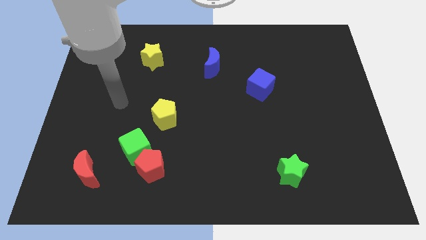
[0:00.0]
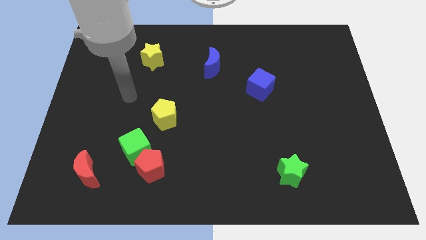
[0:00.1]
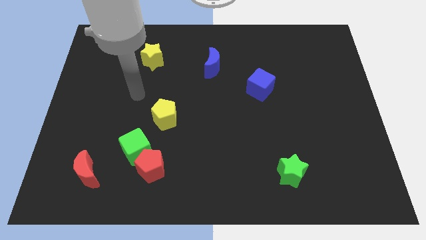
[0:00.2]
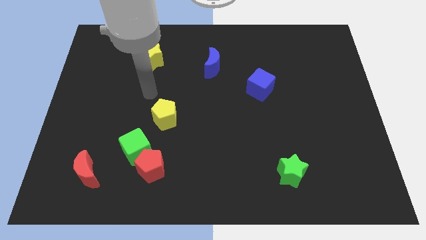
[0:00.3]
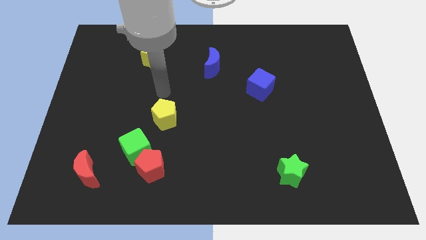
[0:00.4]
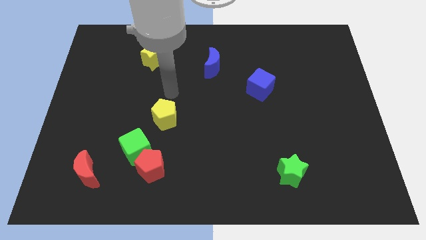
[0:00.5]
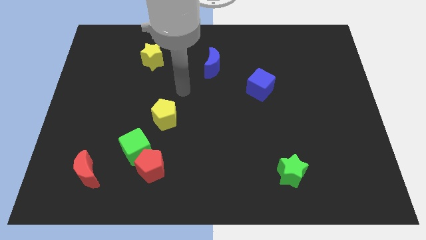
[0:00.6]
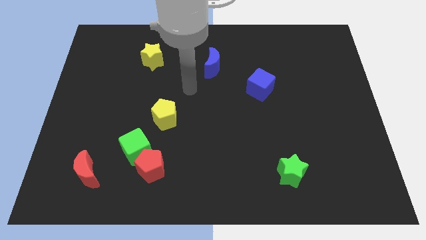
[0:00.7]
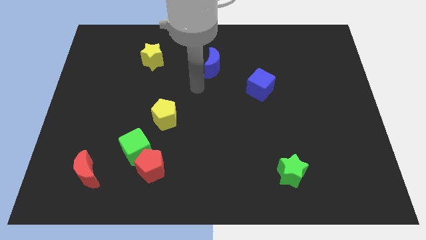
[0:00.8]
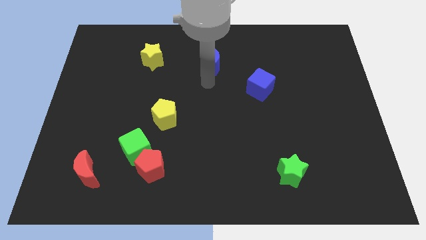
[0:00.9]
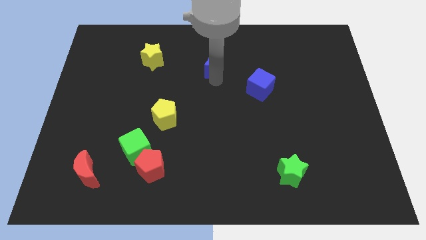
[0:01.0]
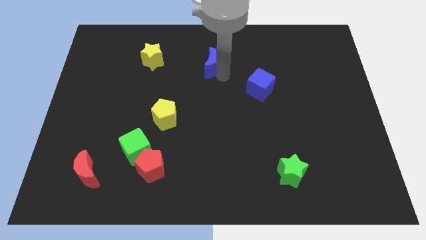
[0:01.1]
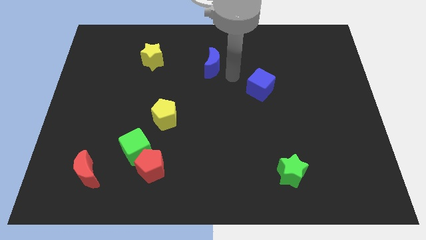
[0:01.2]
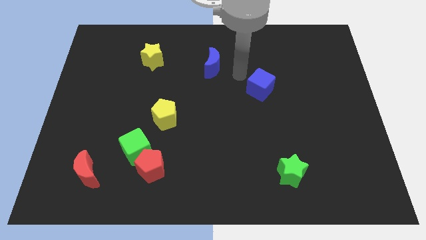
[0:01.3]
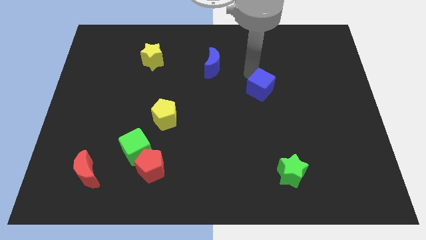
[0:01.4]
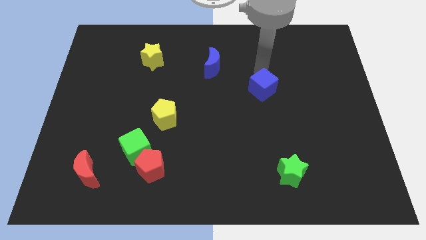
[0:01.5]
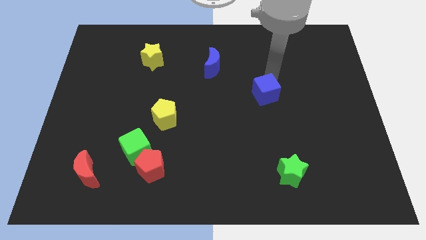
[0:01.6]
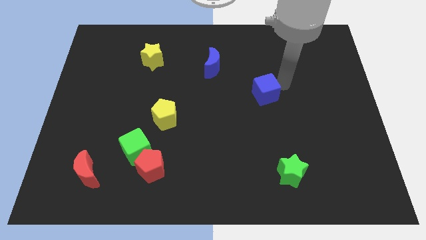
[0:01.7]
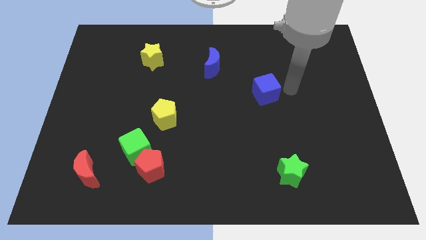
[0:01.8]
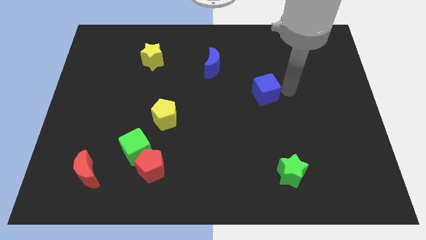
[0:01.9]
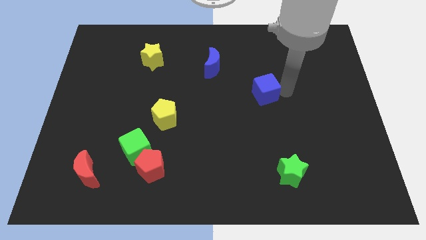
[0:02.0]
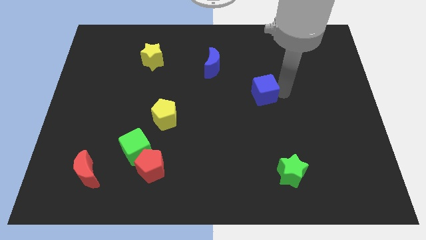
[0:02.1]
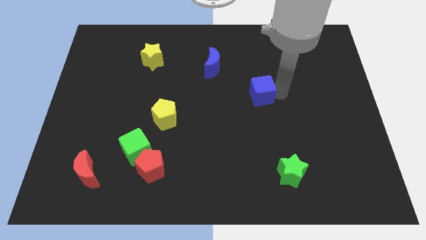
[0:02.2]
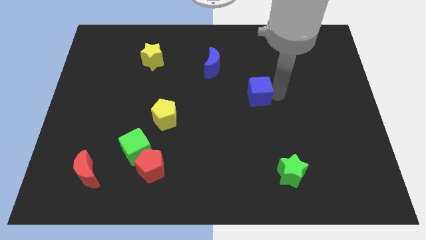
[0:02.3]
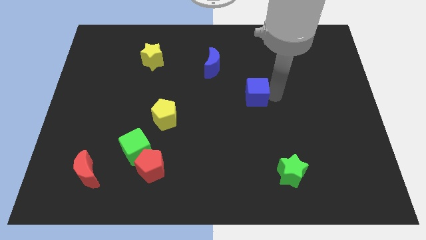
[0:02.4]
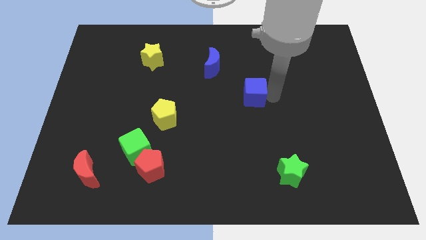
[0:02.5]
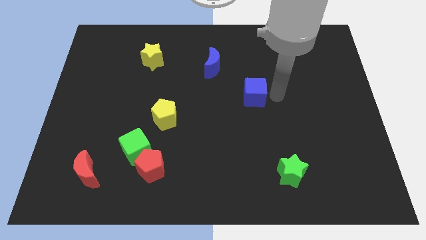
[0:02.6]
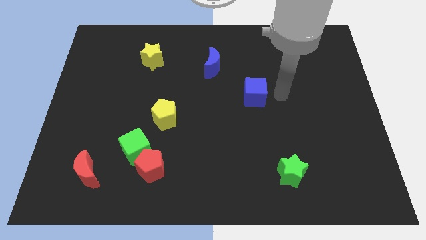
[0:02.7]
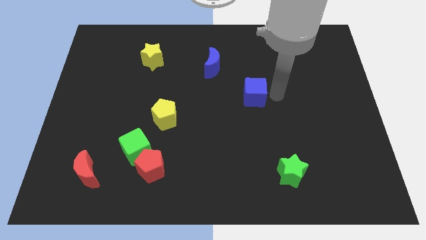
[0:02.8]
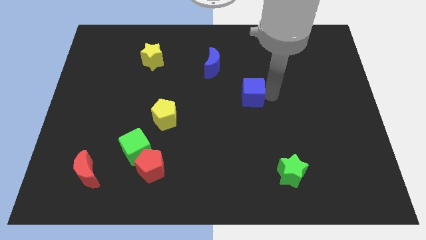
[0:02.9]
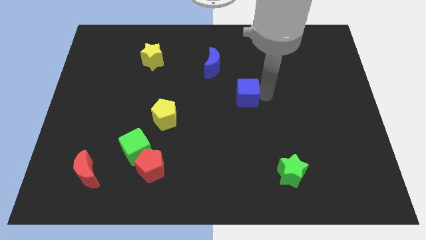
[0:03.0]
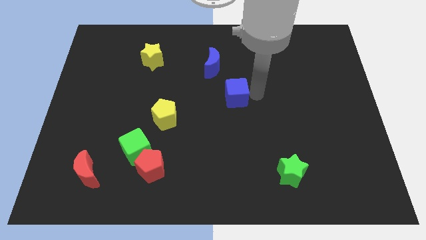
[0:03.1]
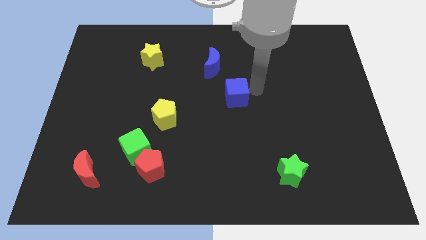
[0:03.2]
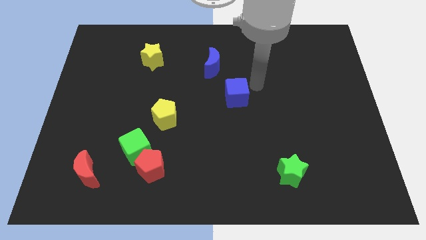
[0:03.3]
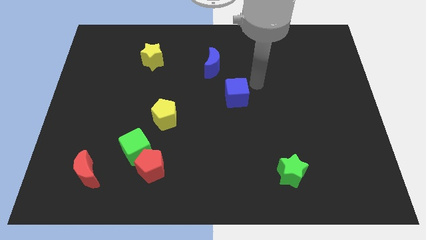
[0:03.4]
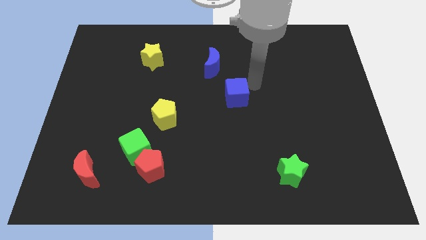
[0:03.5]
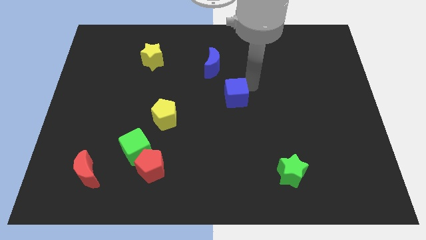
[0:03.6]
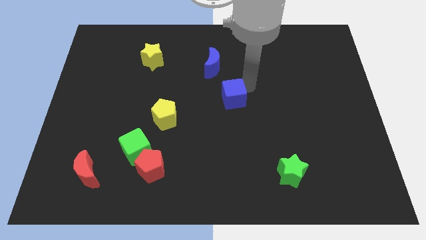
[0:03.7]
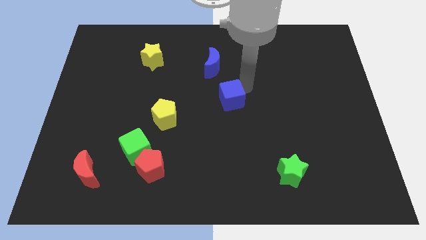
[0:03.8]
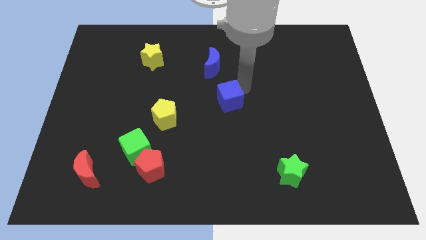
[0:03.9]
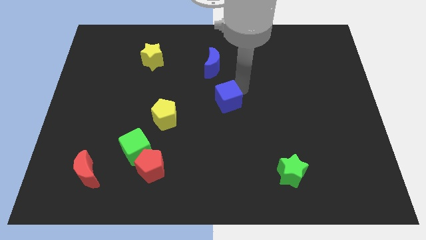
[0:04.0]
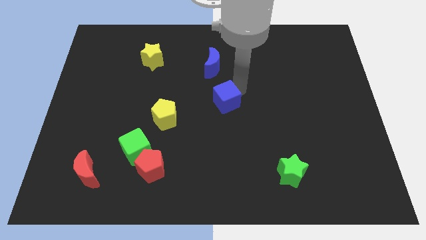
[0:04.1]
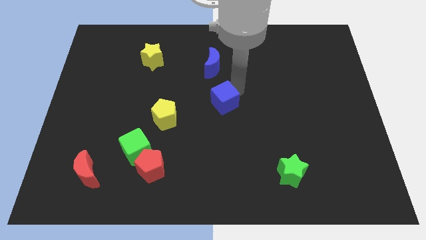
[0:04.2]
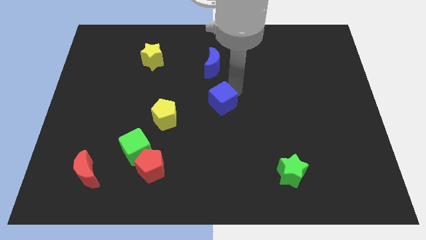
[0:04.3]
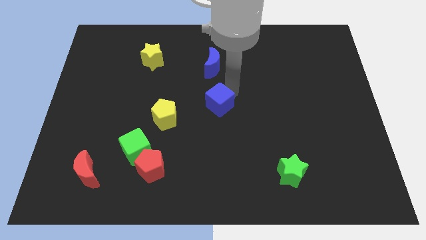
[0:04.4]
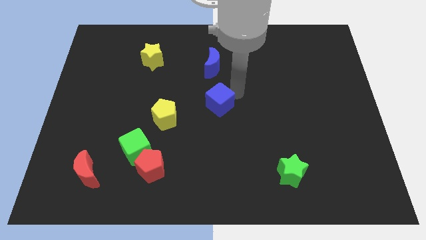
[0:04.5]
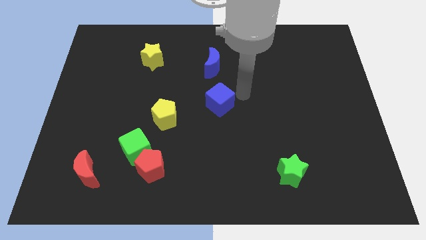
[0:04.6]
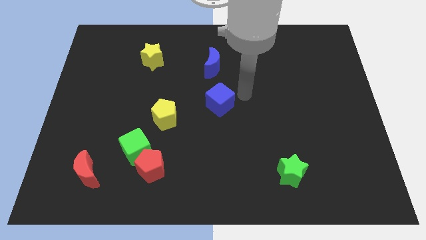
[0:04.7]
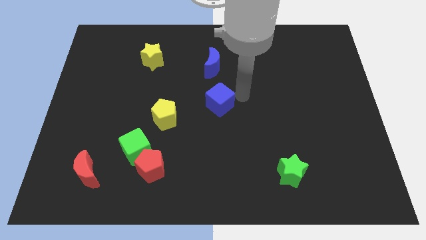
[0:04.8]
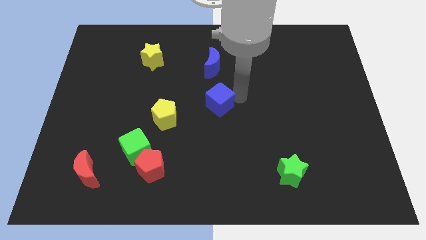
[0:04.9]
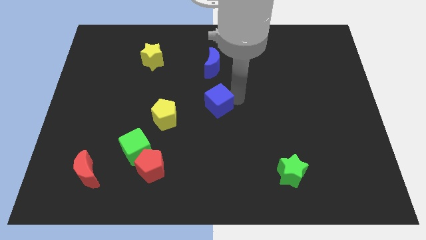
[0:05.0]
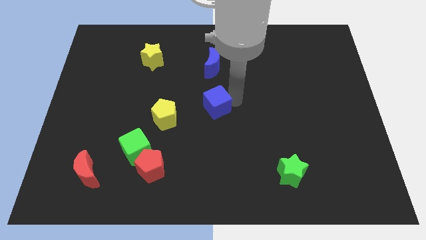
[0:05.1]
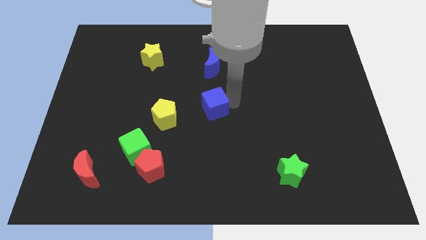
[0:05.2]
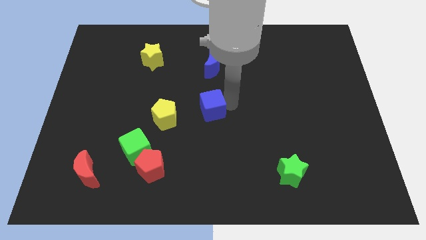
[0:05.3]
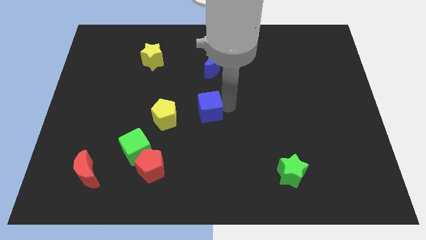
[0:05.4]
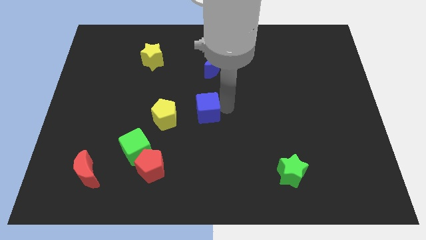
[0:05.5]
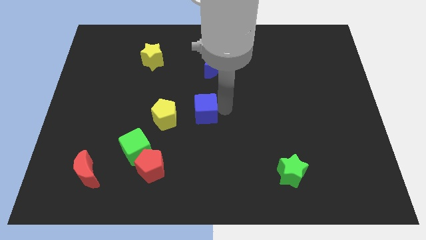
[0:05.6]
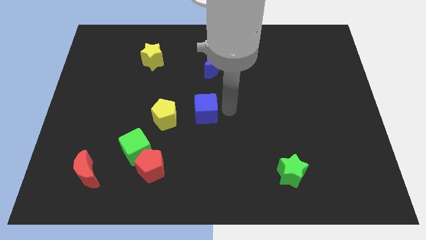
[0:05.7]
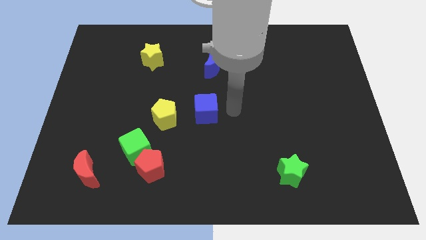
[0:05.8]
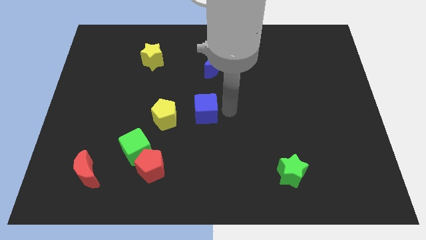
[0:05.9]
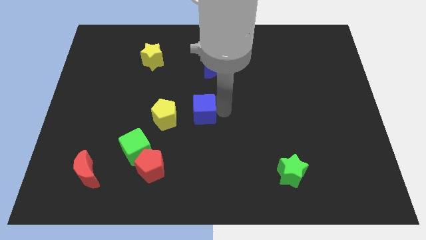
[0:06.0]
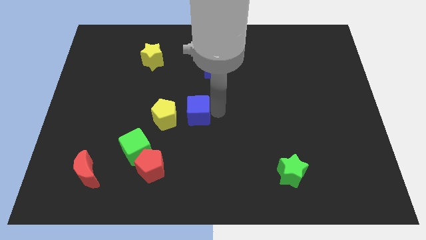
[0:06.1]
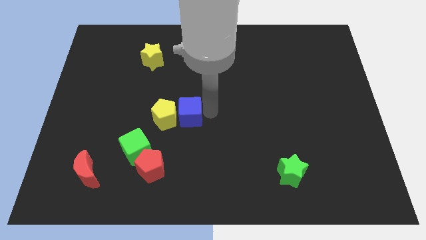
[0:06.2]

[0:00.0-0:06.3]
push the blue cube next to the yellow pentagon

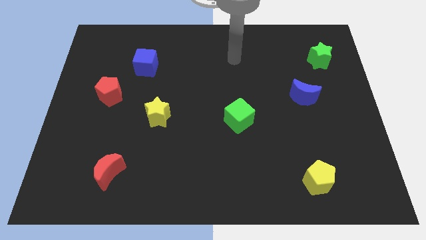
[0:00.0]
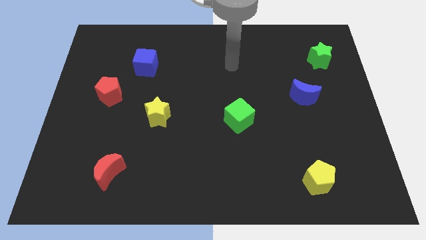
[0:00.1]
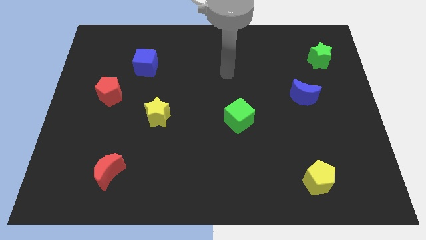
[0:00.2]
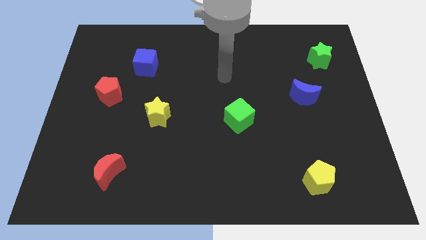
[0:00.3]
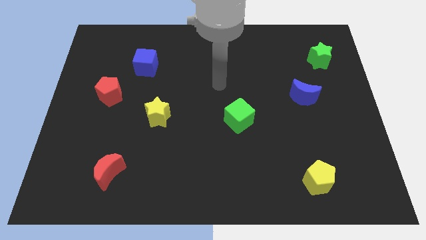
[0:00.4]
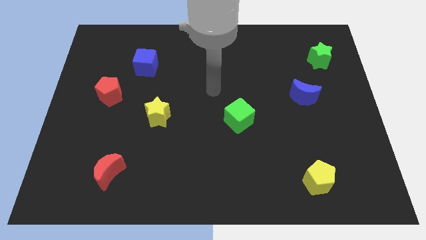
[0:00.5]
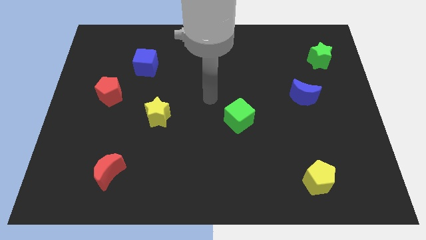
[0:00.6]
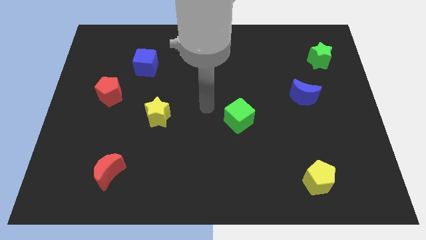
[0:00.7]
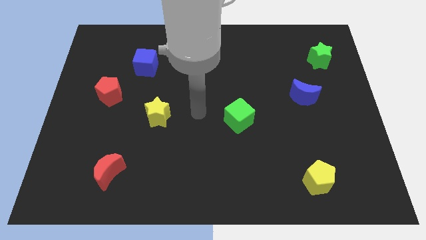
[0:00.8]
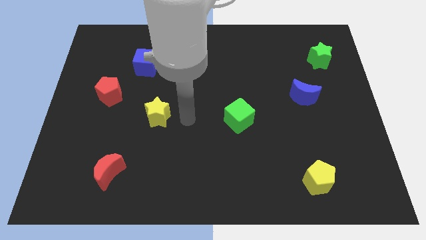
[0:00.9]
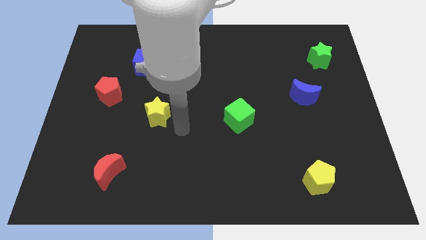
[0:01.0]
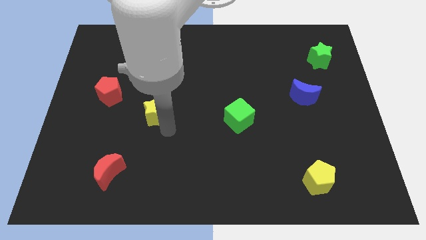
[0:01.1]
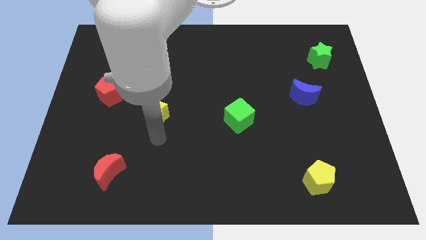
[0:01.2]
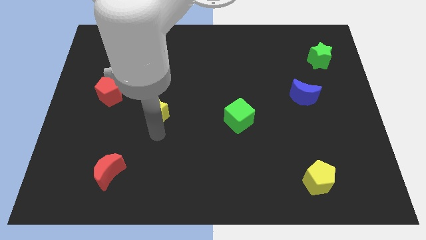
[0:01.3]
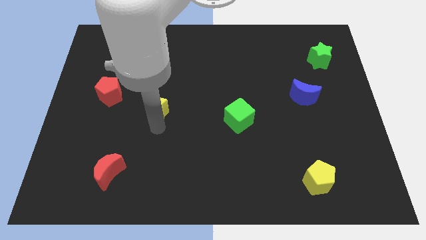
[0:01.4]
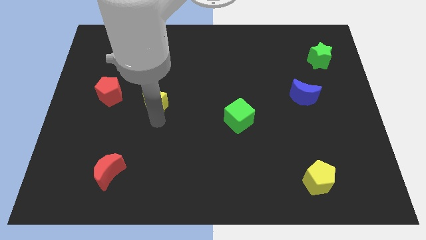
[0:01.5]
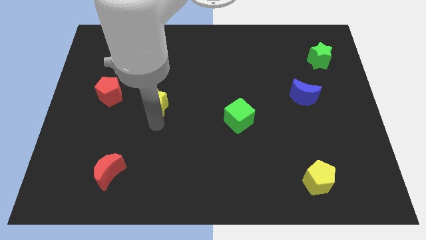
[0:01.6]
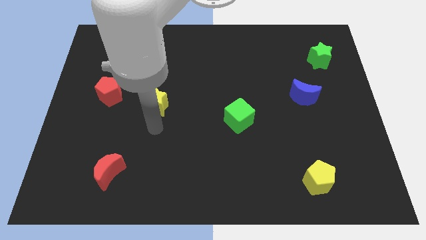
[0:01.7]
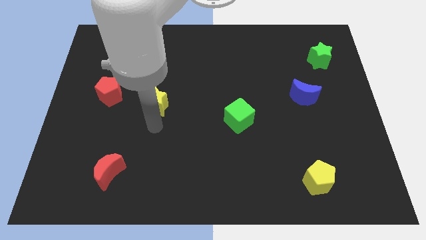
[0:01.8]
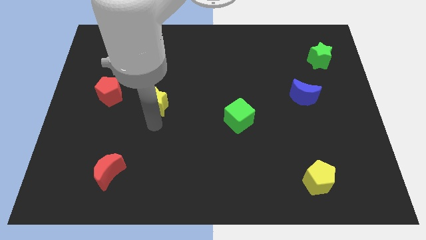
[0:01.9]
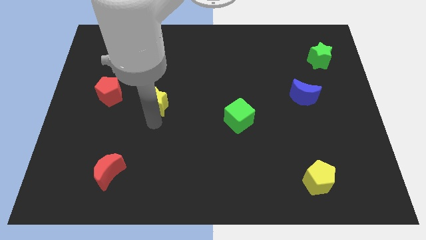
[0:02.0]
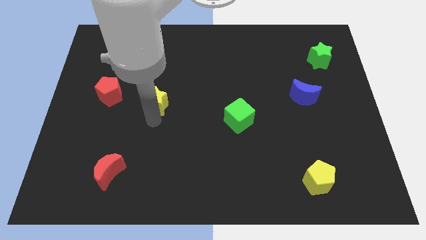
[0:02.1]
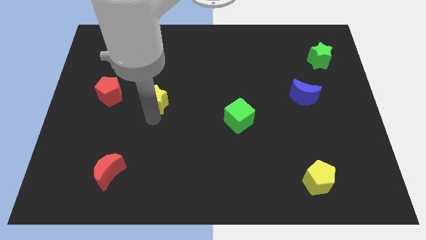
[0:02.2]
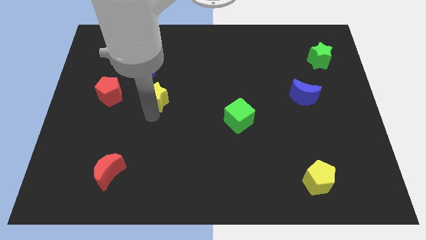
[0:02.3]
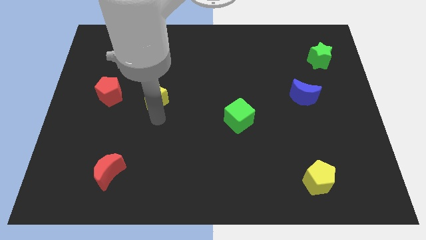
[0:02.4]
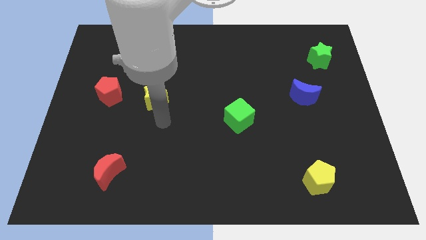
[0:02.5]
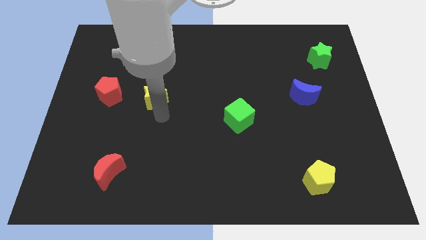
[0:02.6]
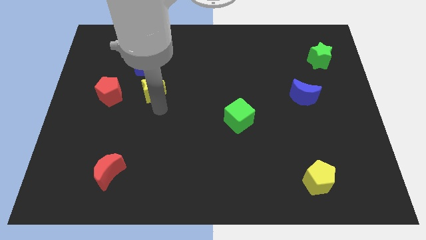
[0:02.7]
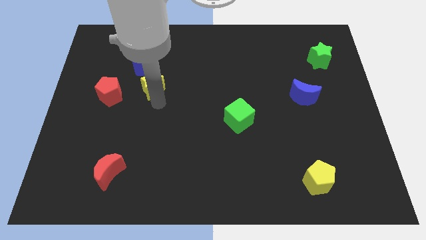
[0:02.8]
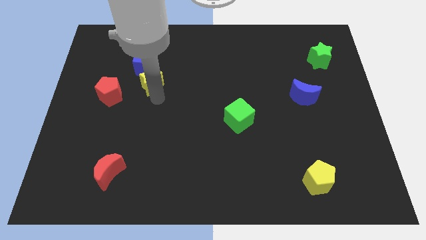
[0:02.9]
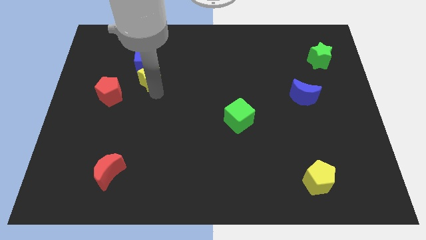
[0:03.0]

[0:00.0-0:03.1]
slide the yellow star towards the blue cube
